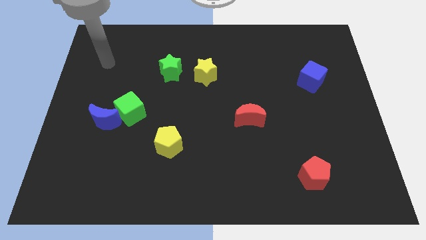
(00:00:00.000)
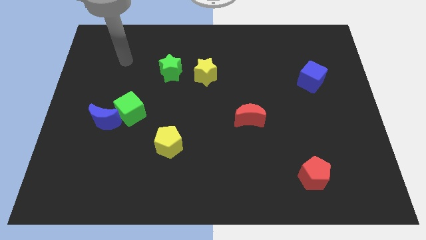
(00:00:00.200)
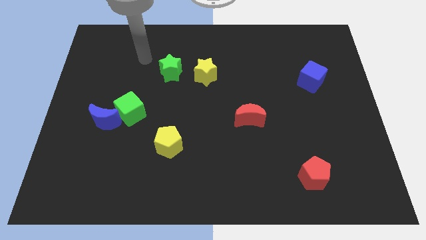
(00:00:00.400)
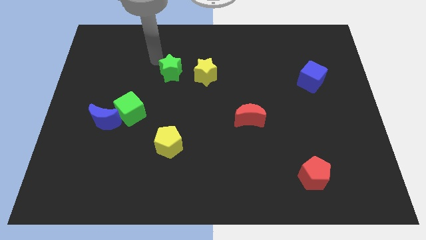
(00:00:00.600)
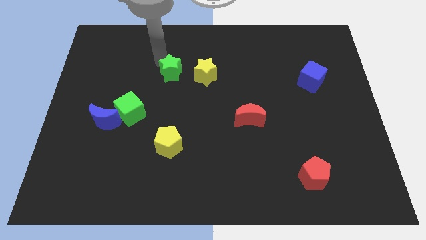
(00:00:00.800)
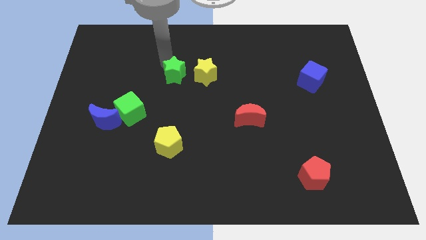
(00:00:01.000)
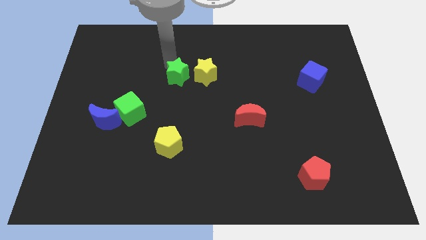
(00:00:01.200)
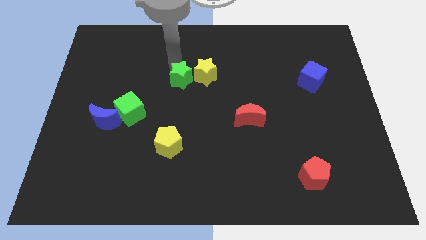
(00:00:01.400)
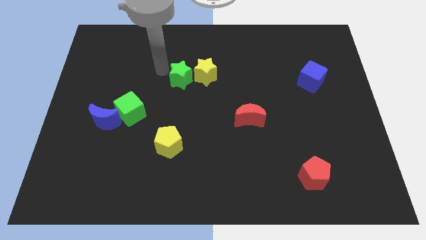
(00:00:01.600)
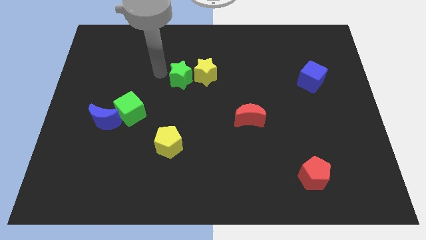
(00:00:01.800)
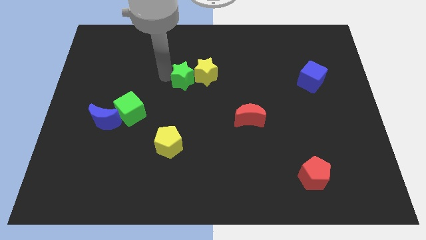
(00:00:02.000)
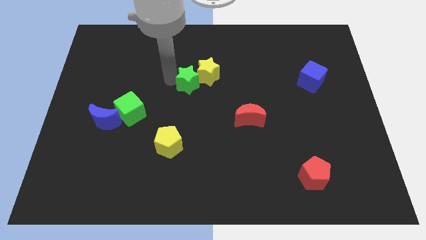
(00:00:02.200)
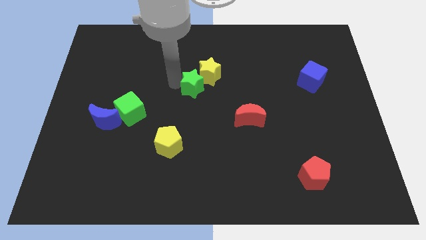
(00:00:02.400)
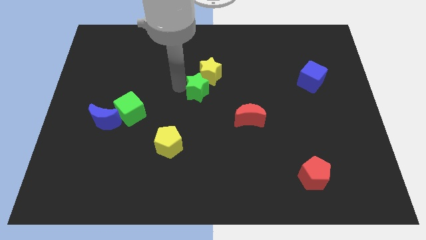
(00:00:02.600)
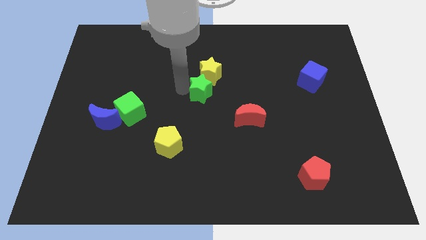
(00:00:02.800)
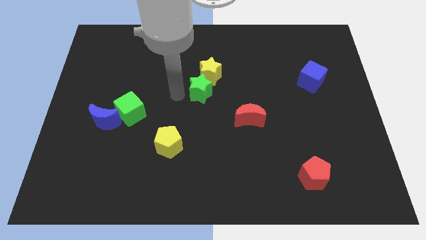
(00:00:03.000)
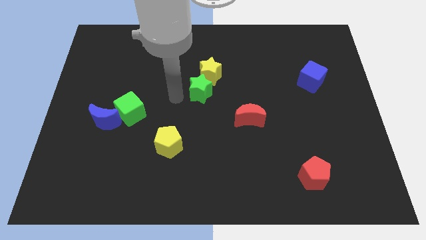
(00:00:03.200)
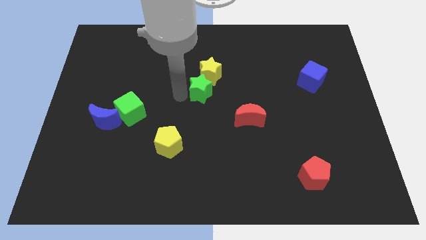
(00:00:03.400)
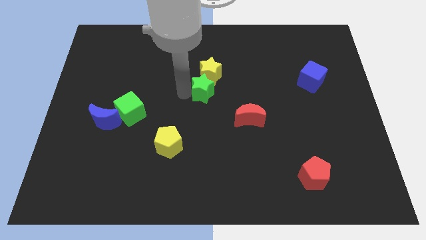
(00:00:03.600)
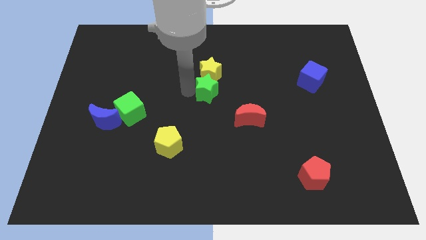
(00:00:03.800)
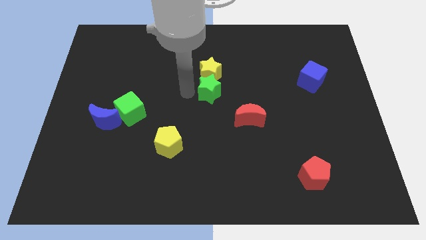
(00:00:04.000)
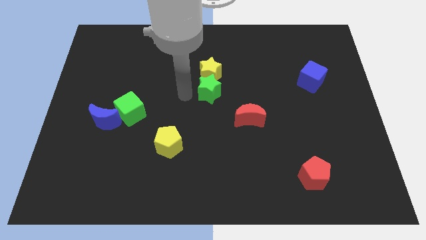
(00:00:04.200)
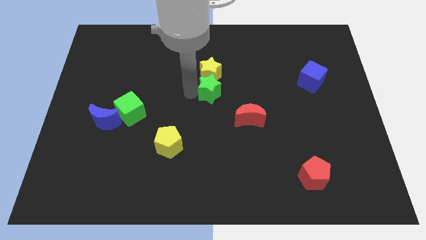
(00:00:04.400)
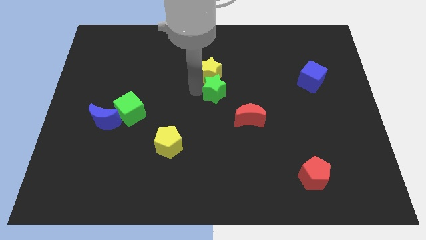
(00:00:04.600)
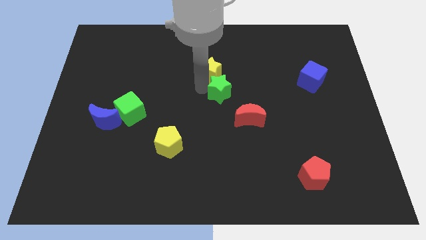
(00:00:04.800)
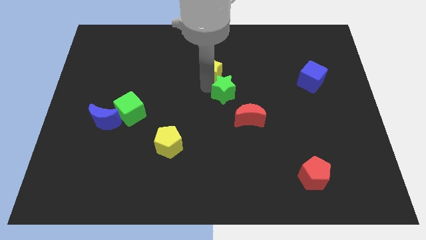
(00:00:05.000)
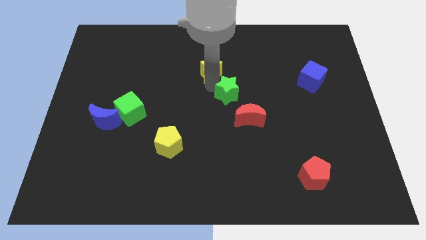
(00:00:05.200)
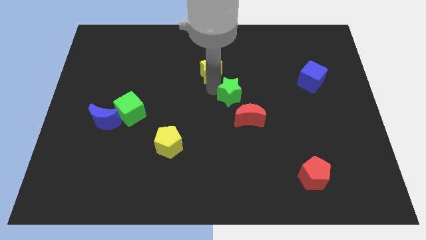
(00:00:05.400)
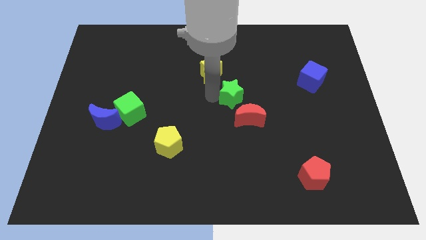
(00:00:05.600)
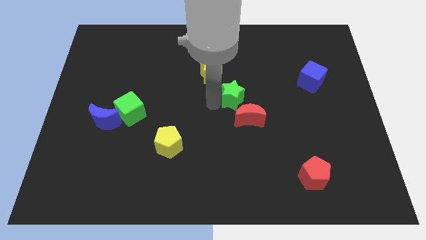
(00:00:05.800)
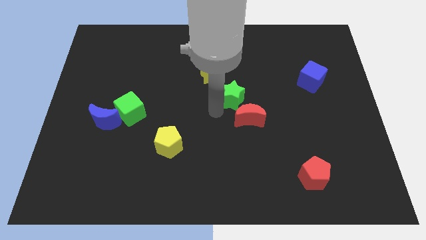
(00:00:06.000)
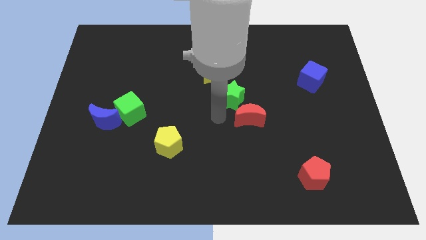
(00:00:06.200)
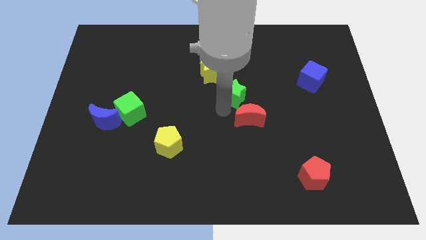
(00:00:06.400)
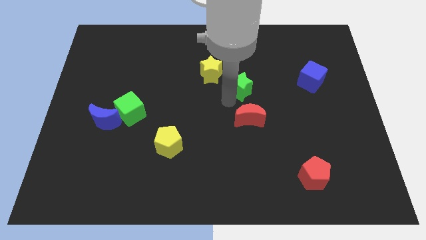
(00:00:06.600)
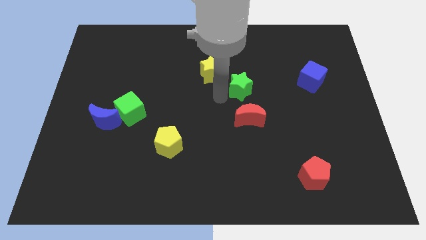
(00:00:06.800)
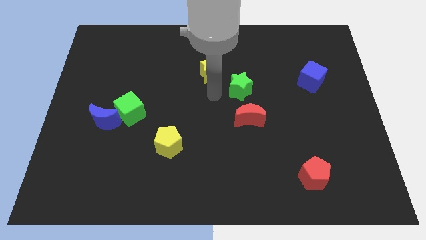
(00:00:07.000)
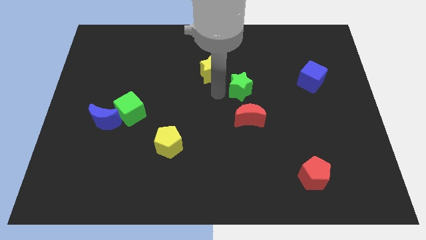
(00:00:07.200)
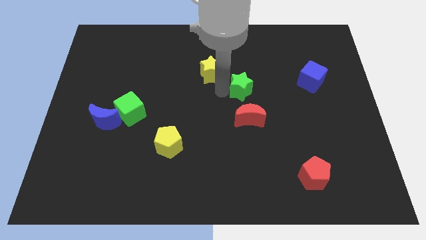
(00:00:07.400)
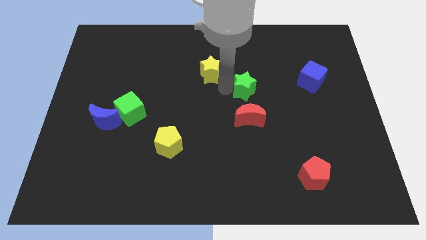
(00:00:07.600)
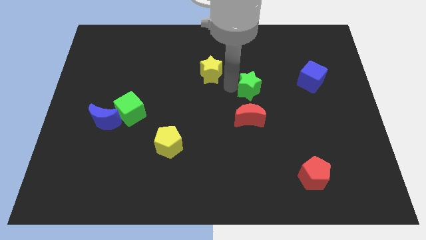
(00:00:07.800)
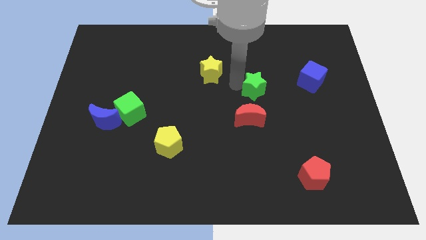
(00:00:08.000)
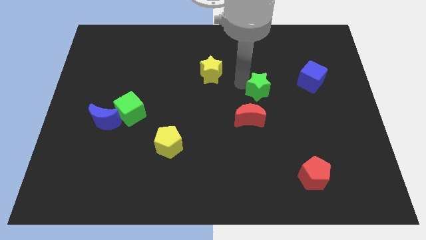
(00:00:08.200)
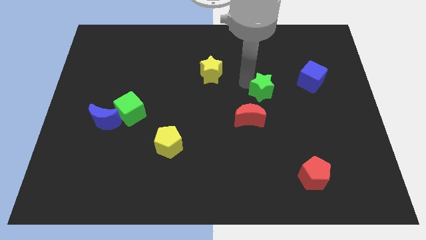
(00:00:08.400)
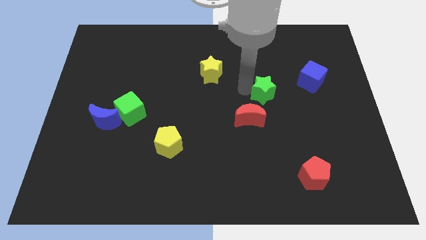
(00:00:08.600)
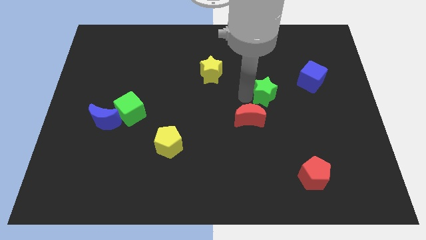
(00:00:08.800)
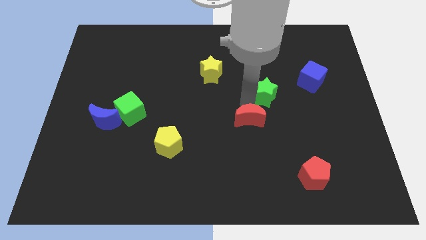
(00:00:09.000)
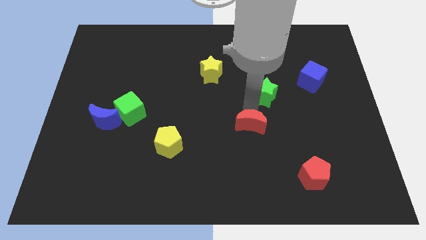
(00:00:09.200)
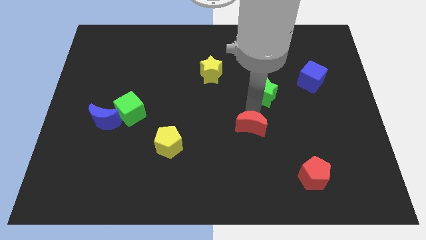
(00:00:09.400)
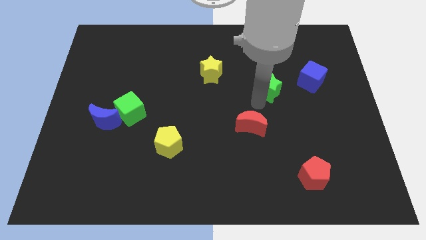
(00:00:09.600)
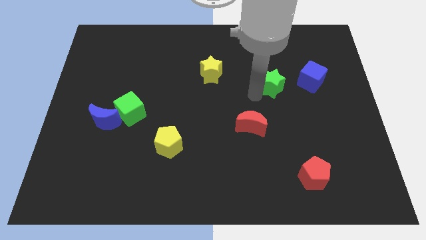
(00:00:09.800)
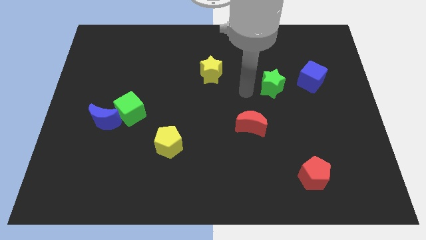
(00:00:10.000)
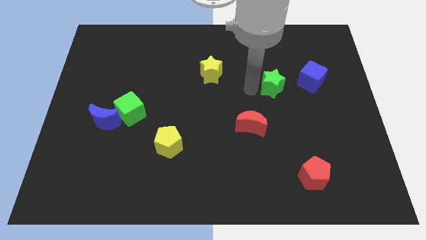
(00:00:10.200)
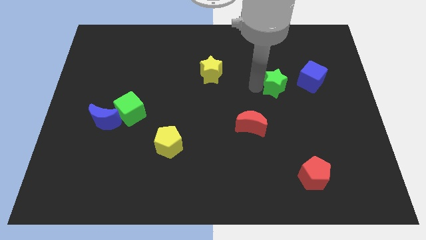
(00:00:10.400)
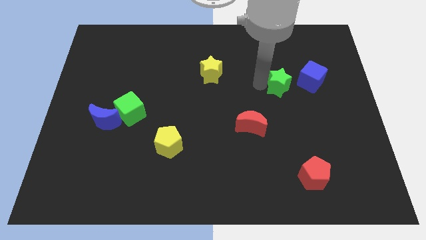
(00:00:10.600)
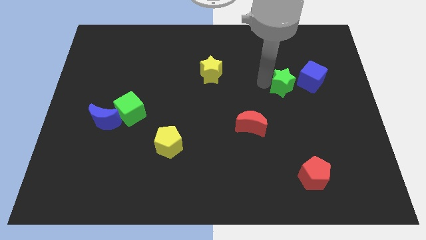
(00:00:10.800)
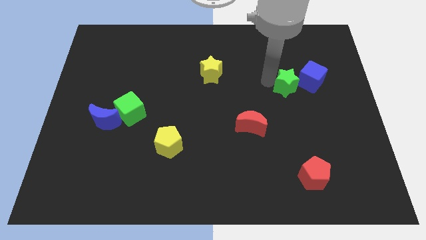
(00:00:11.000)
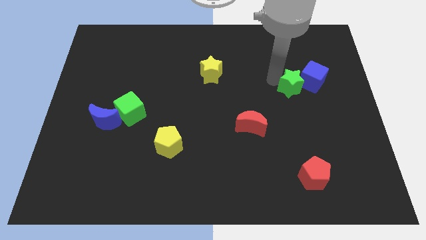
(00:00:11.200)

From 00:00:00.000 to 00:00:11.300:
push the green star towards the blue cube

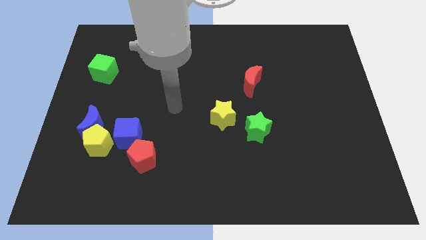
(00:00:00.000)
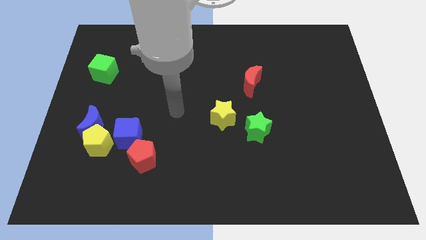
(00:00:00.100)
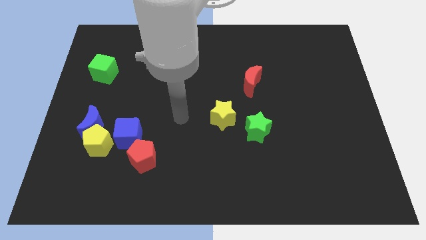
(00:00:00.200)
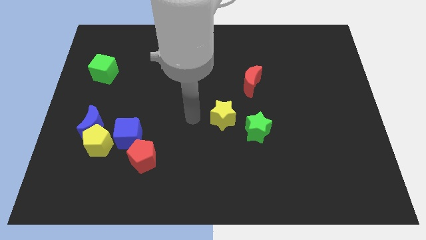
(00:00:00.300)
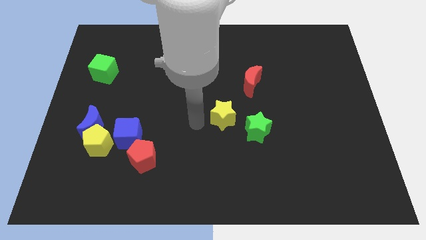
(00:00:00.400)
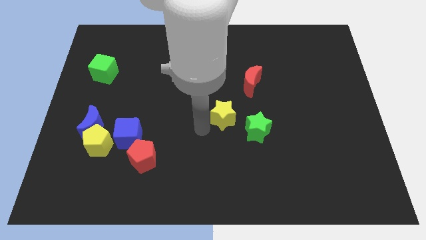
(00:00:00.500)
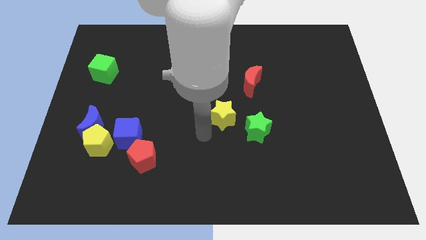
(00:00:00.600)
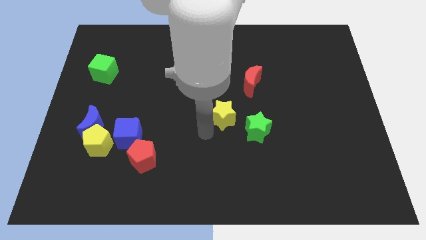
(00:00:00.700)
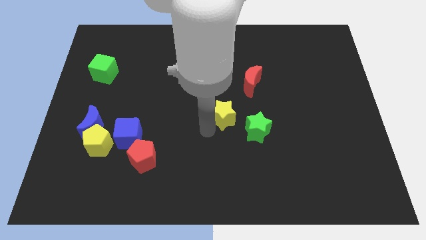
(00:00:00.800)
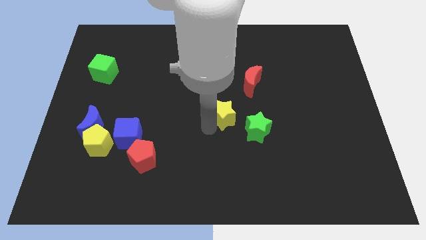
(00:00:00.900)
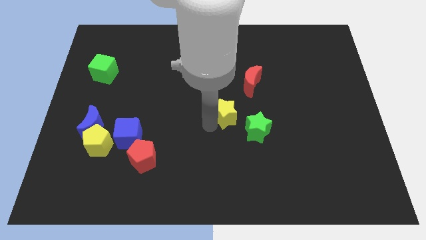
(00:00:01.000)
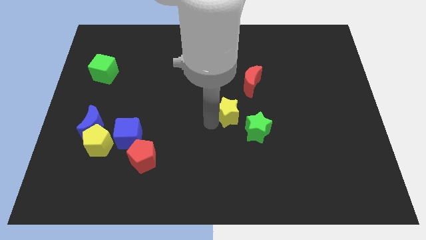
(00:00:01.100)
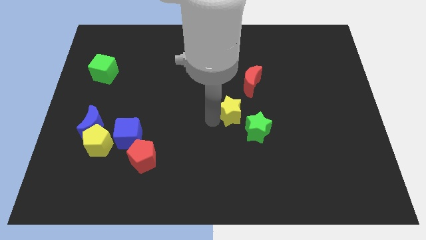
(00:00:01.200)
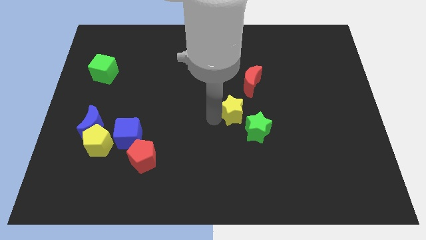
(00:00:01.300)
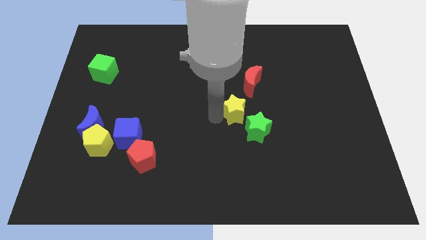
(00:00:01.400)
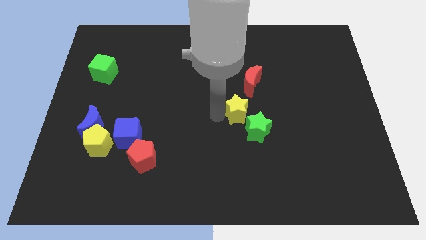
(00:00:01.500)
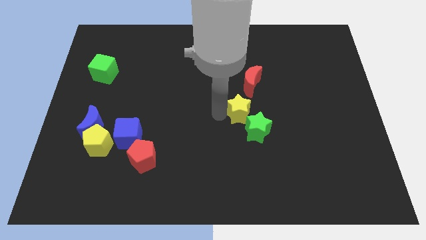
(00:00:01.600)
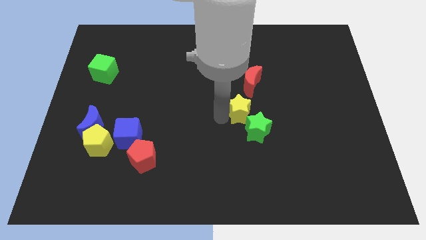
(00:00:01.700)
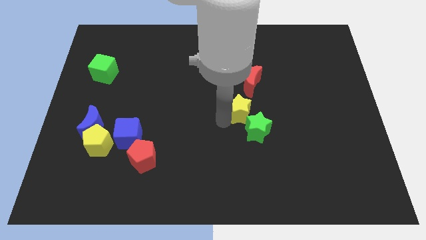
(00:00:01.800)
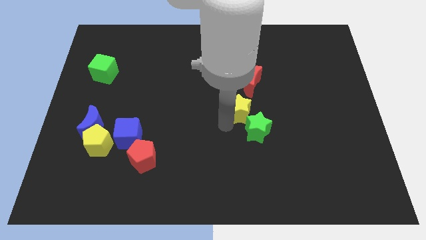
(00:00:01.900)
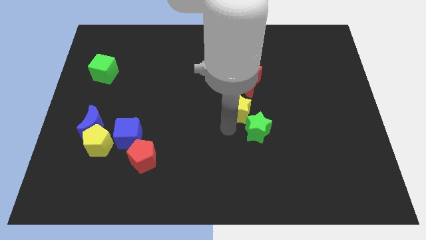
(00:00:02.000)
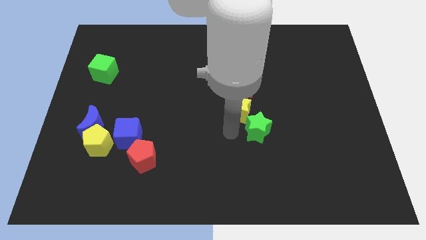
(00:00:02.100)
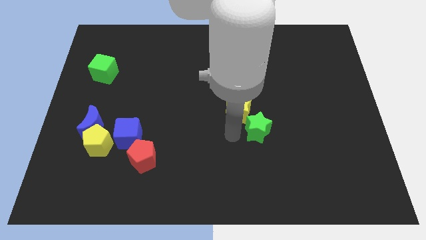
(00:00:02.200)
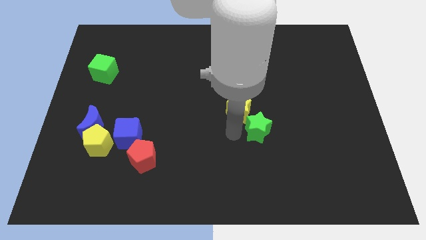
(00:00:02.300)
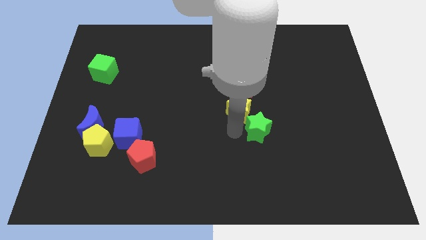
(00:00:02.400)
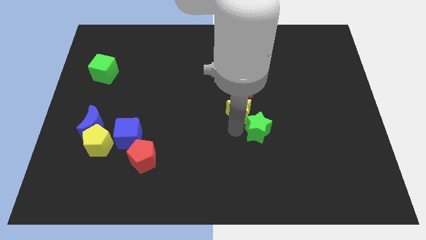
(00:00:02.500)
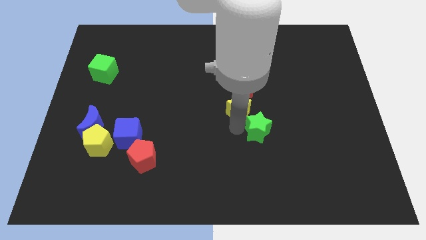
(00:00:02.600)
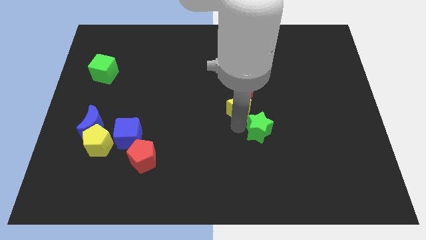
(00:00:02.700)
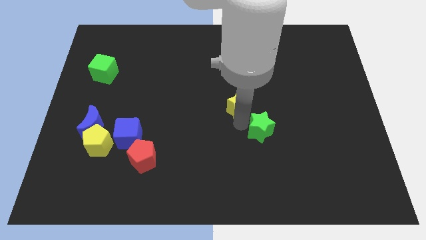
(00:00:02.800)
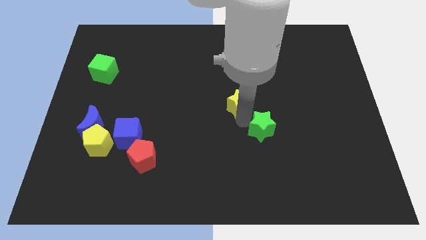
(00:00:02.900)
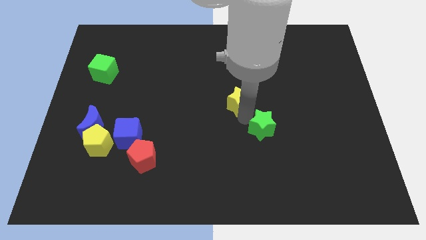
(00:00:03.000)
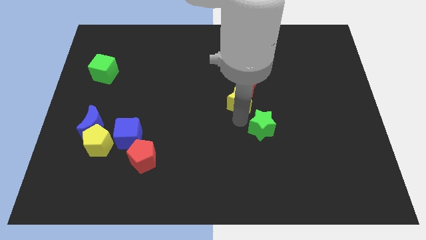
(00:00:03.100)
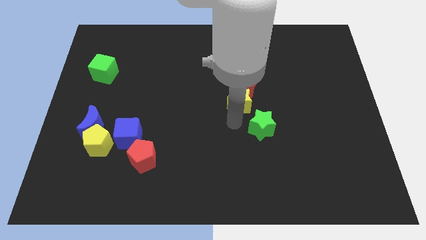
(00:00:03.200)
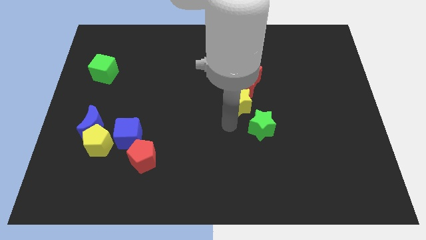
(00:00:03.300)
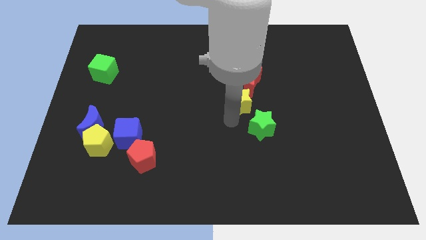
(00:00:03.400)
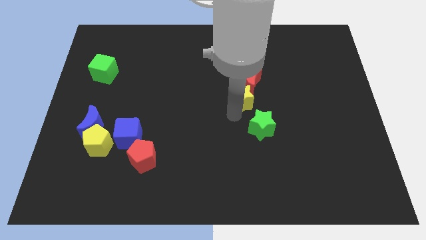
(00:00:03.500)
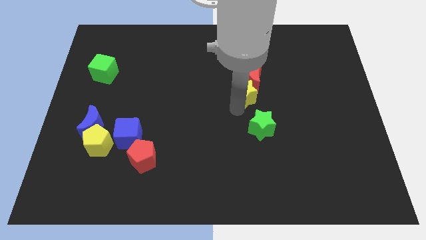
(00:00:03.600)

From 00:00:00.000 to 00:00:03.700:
put the yellow star towards the red moon
